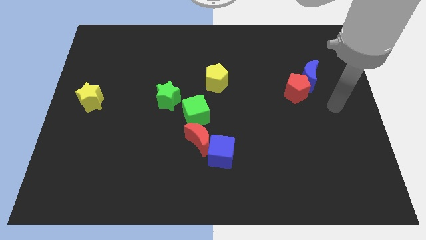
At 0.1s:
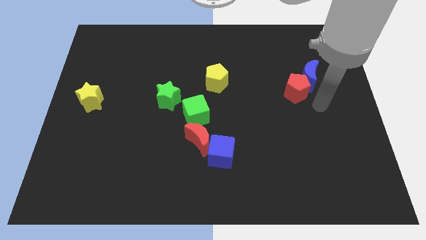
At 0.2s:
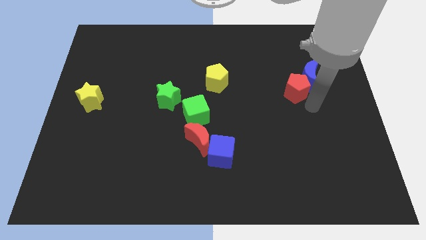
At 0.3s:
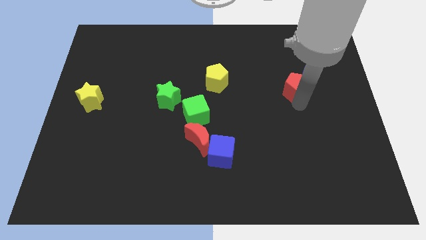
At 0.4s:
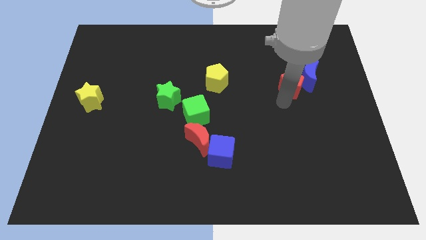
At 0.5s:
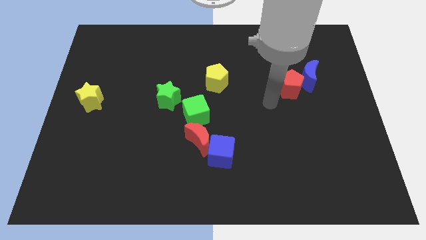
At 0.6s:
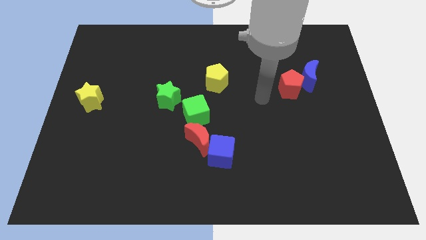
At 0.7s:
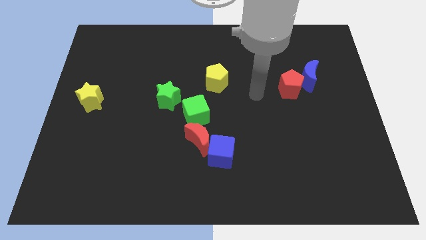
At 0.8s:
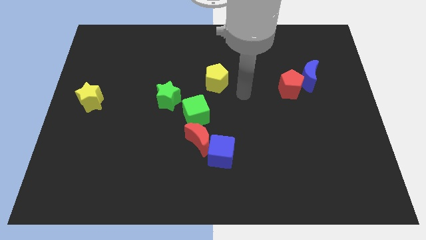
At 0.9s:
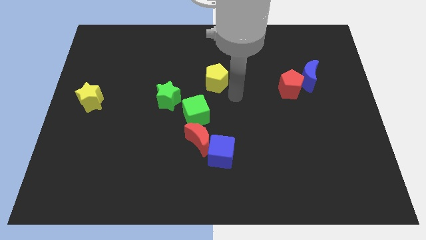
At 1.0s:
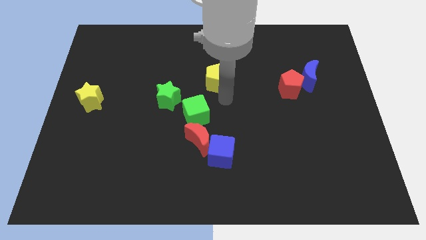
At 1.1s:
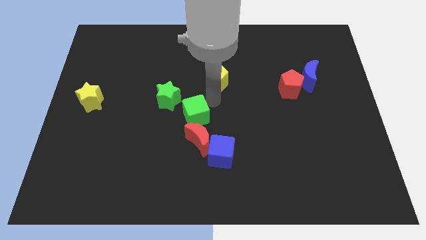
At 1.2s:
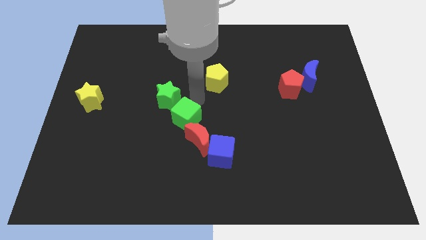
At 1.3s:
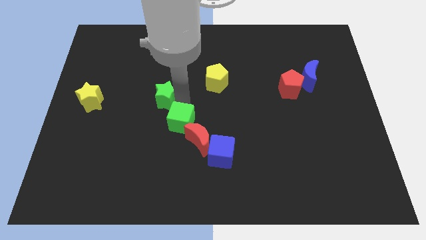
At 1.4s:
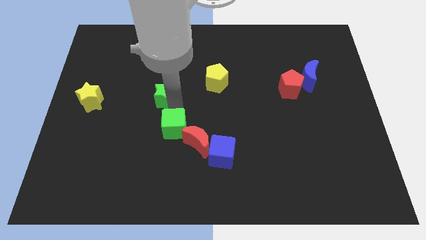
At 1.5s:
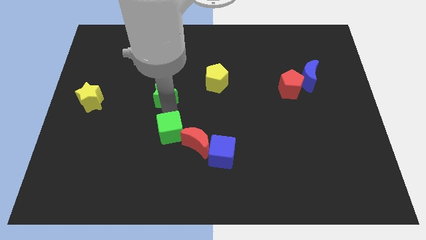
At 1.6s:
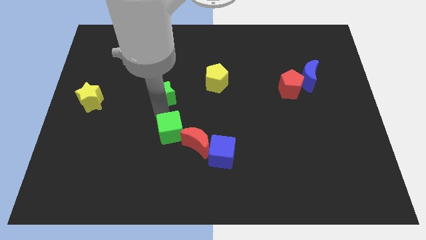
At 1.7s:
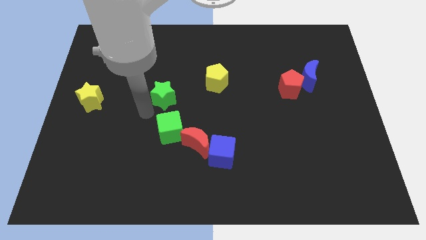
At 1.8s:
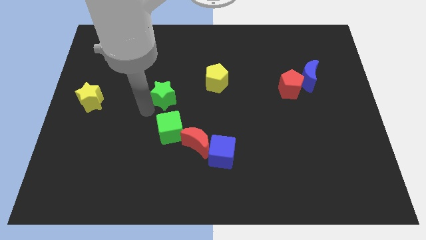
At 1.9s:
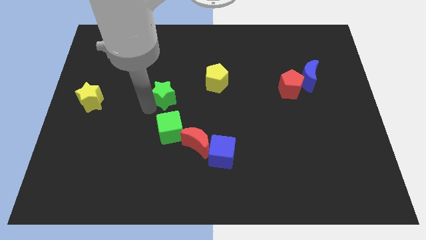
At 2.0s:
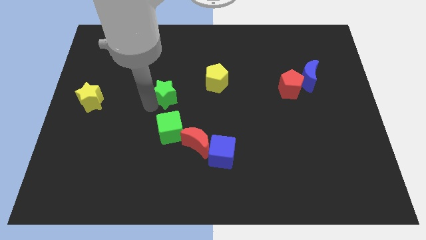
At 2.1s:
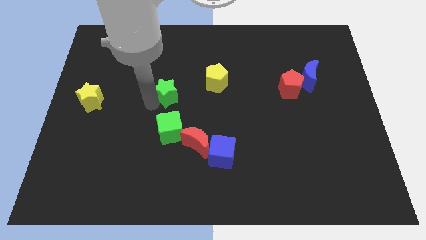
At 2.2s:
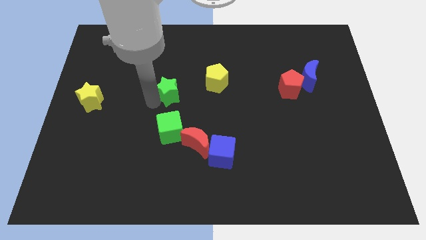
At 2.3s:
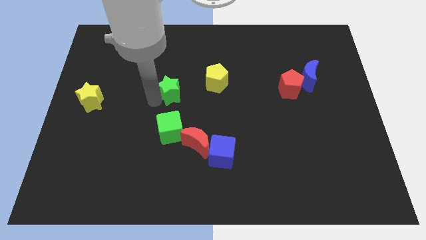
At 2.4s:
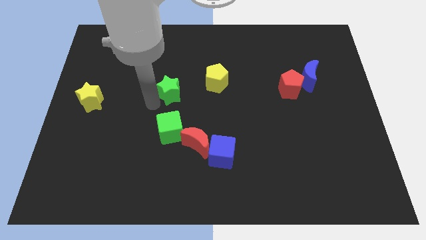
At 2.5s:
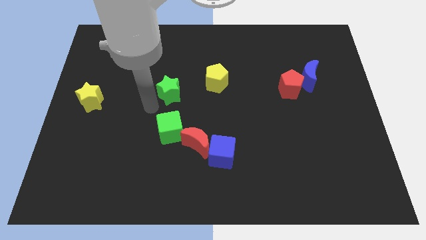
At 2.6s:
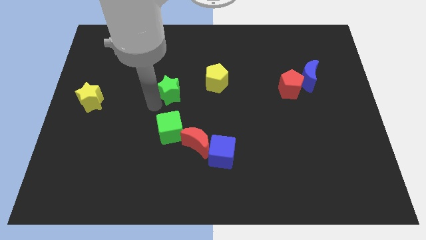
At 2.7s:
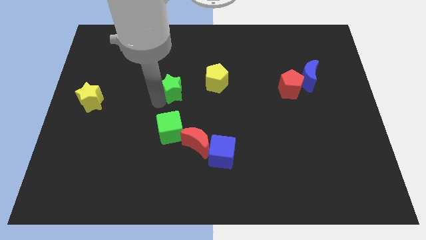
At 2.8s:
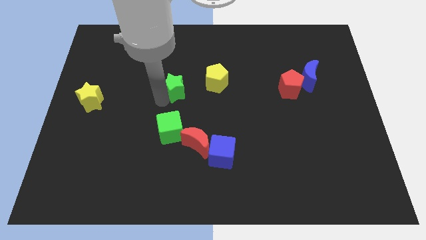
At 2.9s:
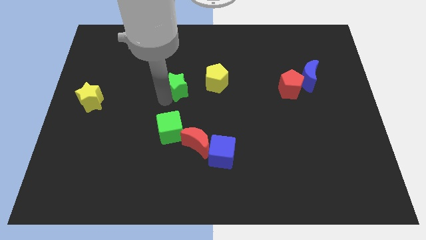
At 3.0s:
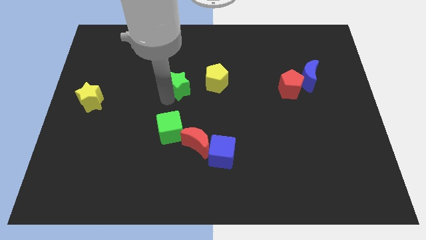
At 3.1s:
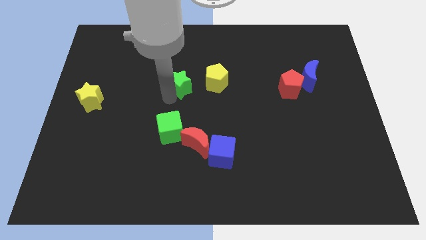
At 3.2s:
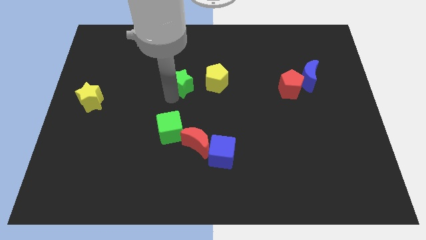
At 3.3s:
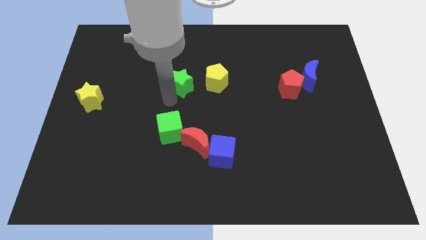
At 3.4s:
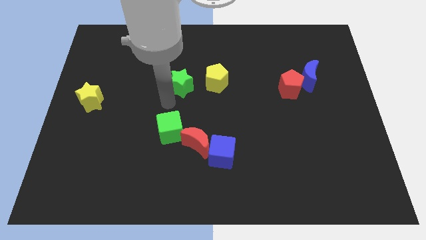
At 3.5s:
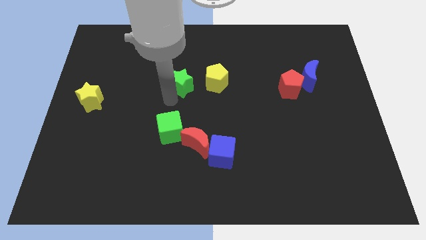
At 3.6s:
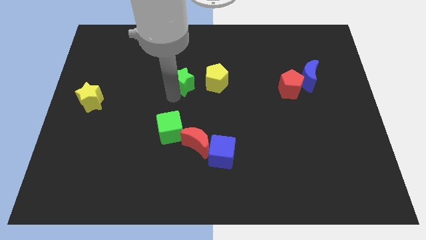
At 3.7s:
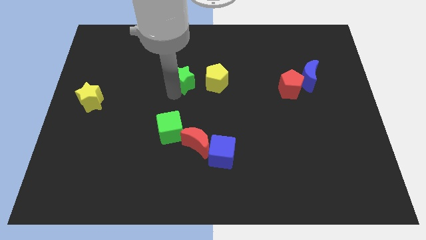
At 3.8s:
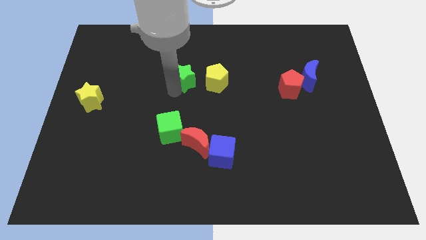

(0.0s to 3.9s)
move the green star a little up and right diagonally

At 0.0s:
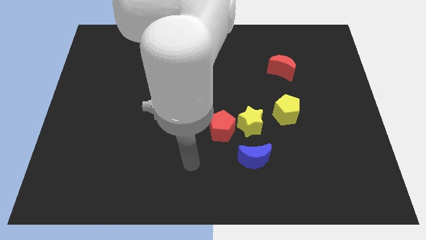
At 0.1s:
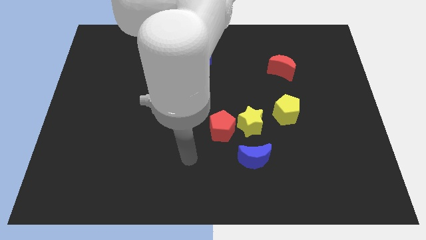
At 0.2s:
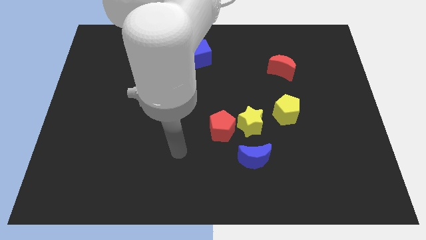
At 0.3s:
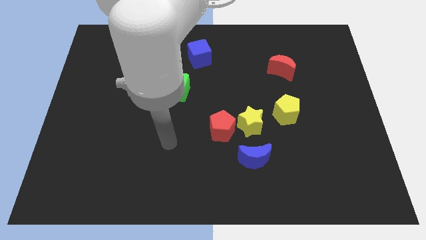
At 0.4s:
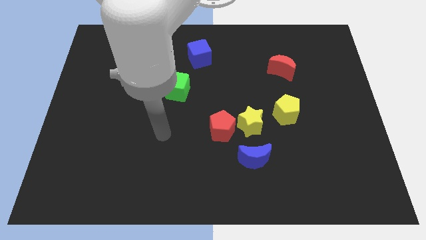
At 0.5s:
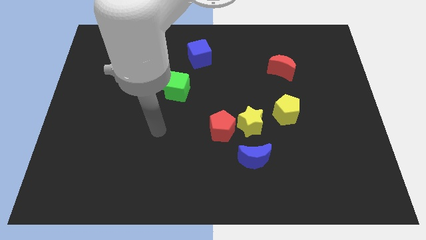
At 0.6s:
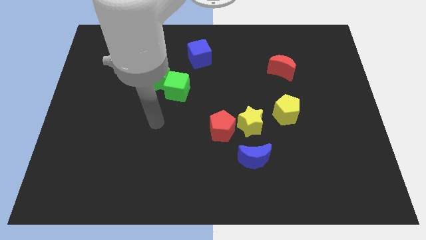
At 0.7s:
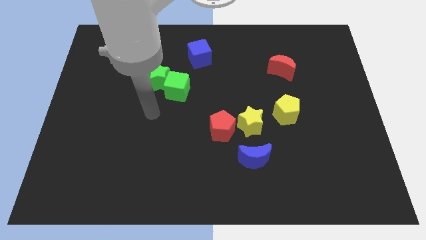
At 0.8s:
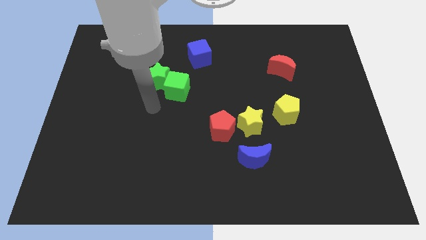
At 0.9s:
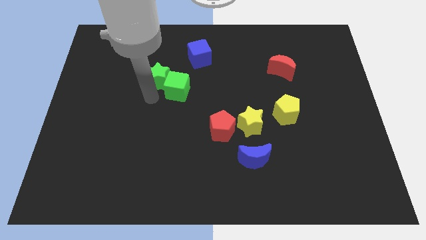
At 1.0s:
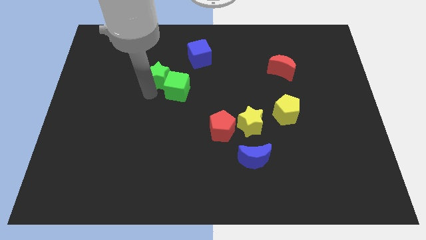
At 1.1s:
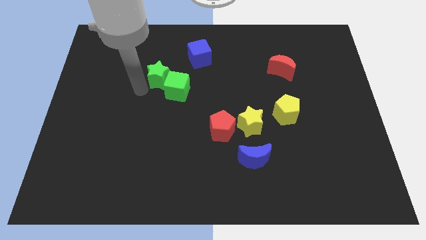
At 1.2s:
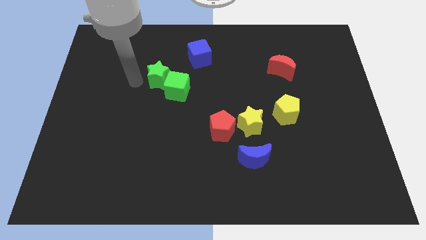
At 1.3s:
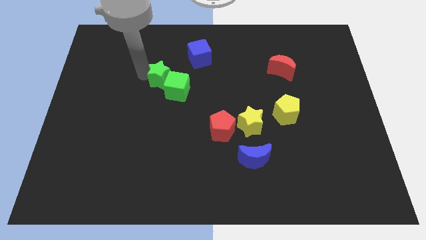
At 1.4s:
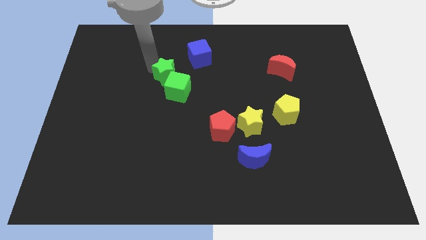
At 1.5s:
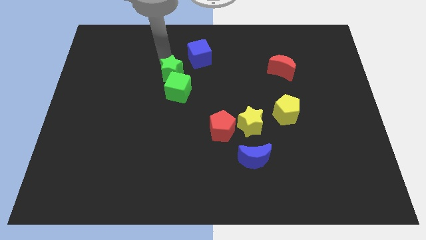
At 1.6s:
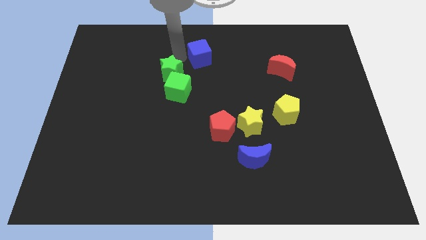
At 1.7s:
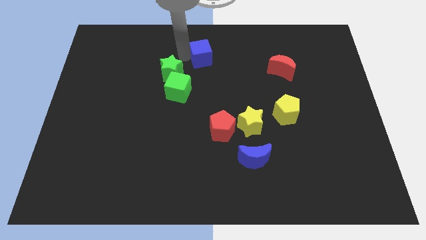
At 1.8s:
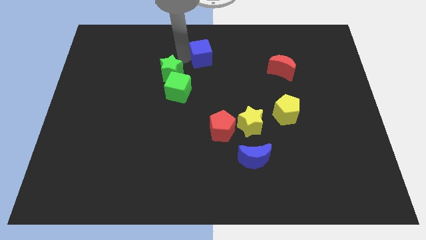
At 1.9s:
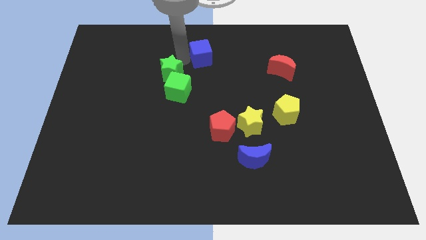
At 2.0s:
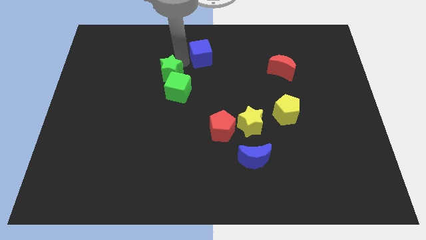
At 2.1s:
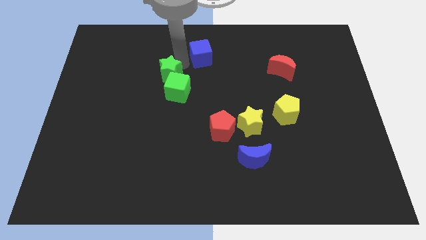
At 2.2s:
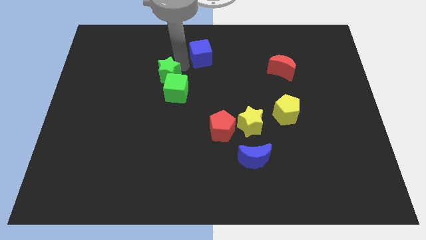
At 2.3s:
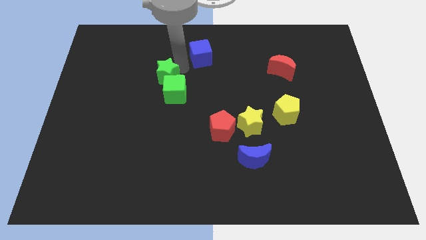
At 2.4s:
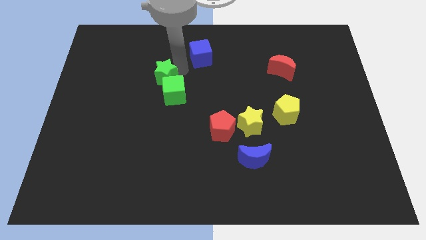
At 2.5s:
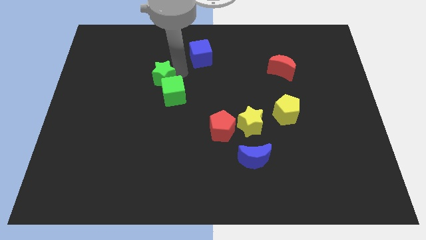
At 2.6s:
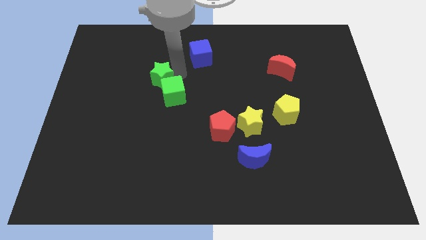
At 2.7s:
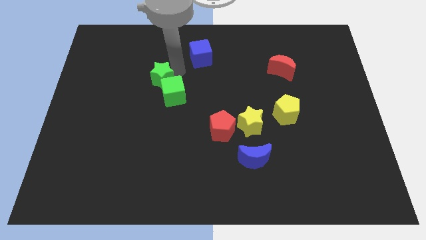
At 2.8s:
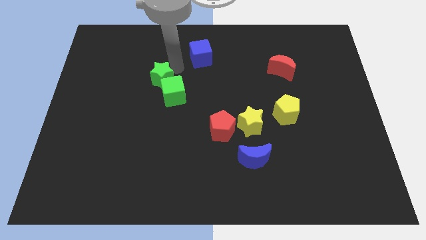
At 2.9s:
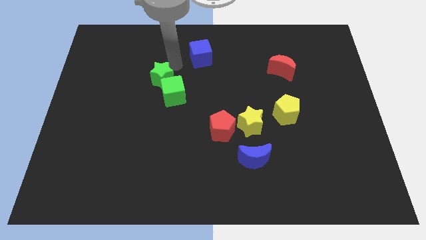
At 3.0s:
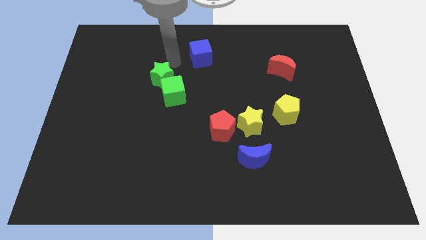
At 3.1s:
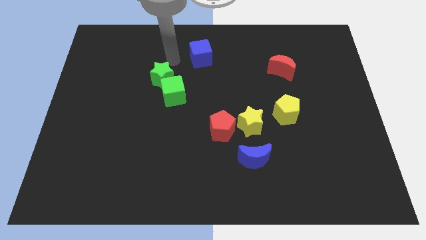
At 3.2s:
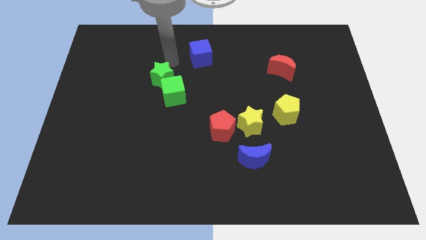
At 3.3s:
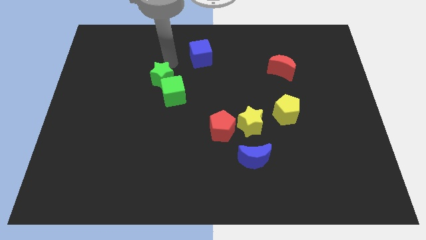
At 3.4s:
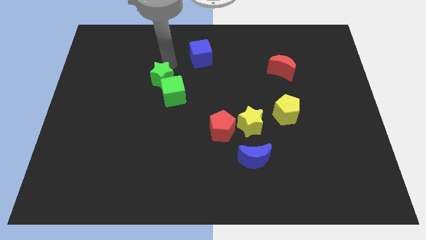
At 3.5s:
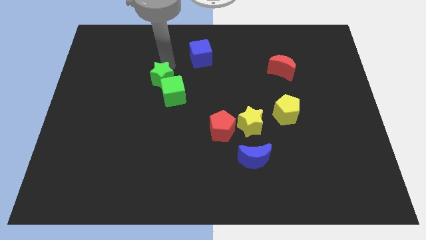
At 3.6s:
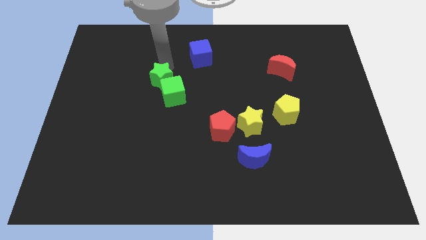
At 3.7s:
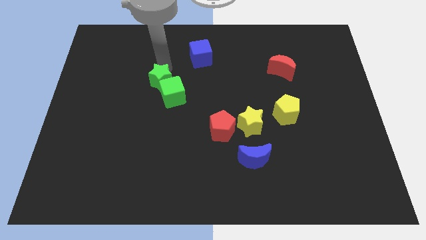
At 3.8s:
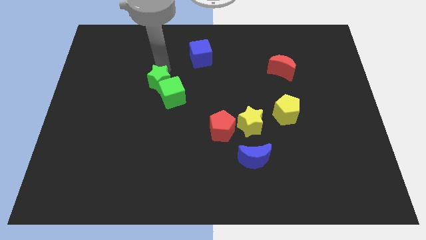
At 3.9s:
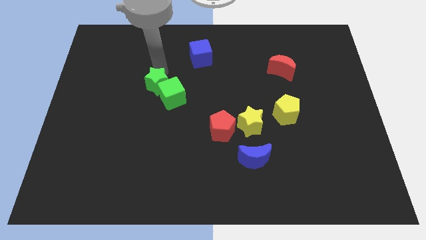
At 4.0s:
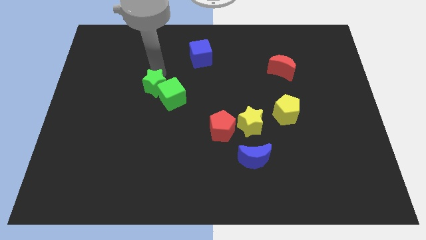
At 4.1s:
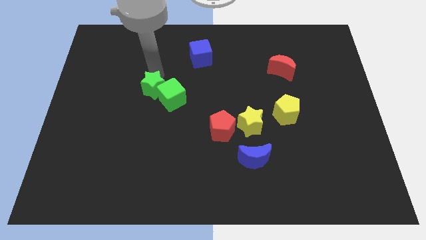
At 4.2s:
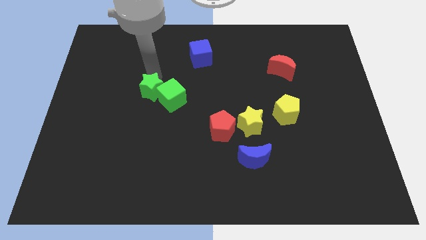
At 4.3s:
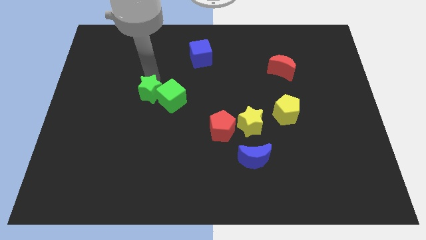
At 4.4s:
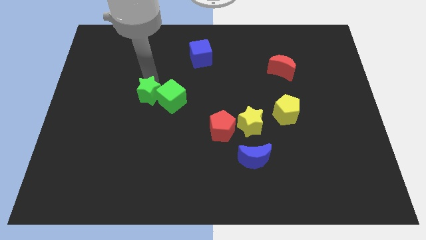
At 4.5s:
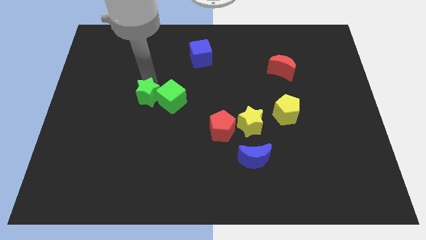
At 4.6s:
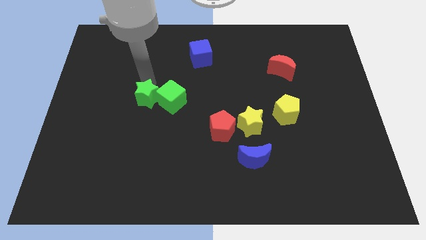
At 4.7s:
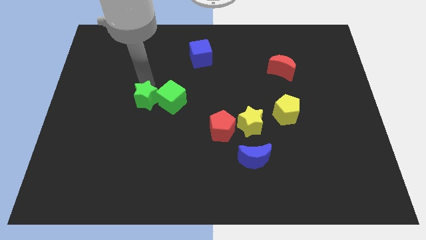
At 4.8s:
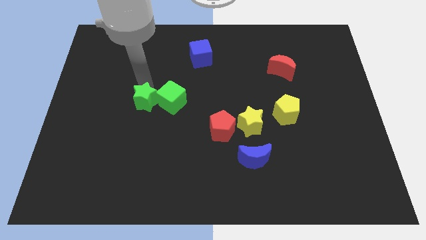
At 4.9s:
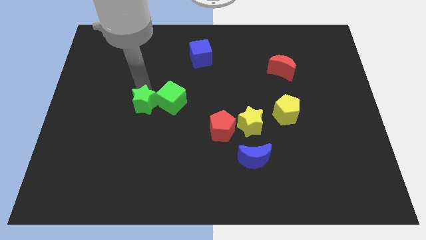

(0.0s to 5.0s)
slide the green star a bit down
